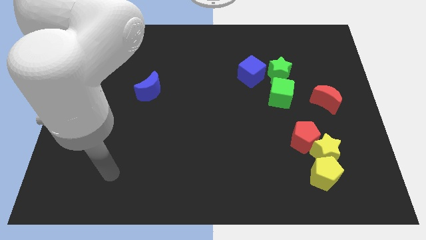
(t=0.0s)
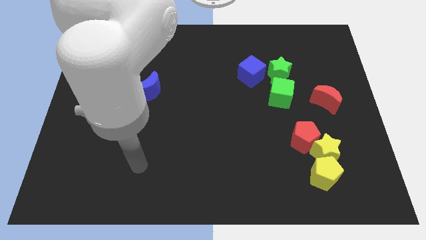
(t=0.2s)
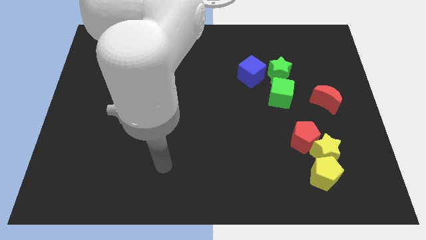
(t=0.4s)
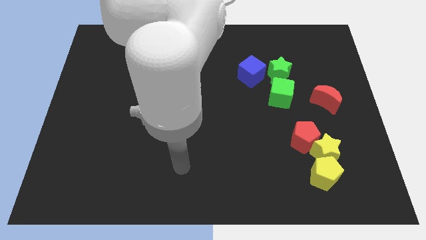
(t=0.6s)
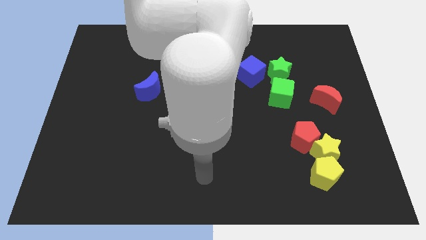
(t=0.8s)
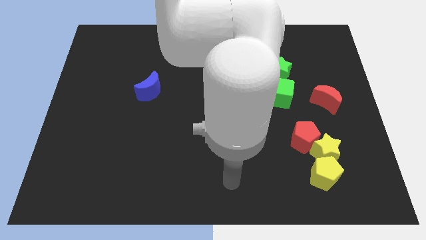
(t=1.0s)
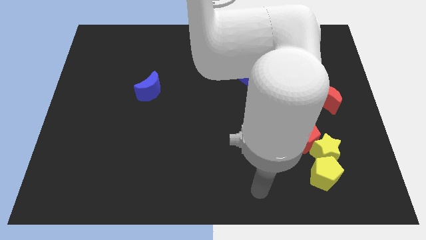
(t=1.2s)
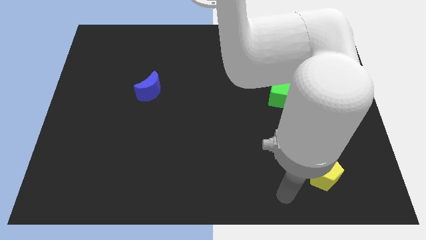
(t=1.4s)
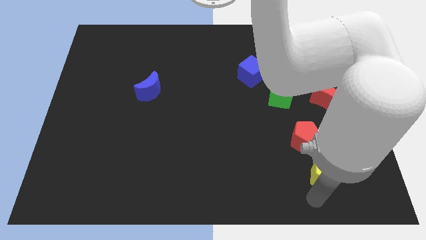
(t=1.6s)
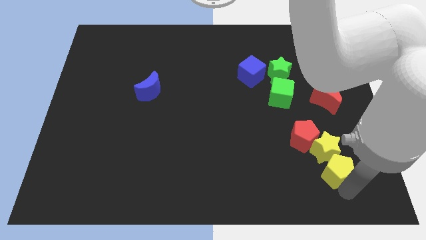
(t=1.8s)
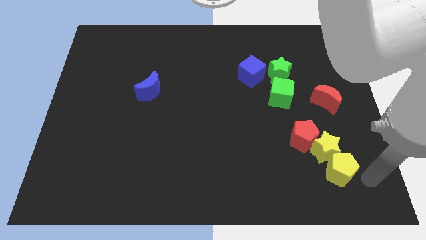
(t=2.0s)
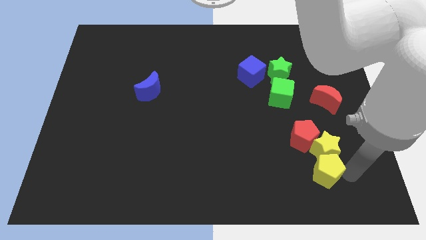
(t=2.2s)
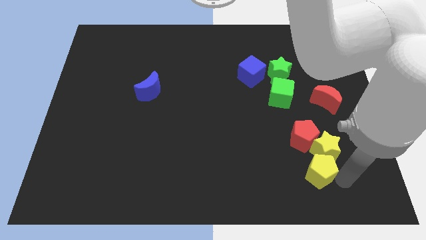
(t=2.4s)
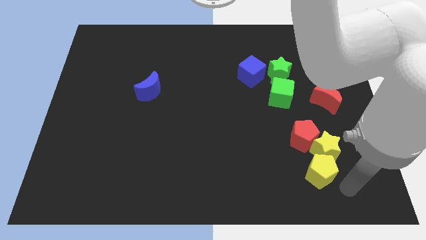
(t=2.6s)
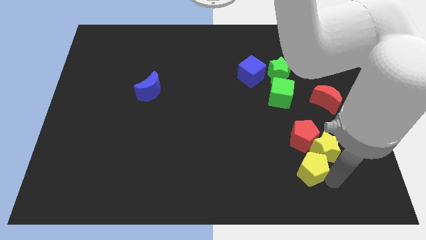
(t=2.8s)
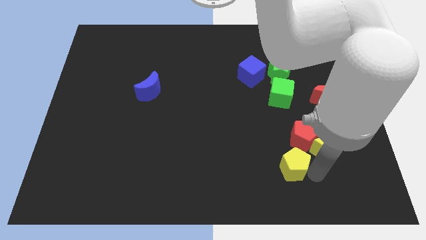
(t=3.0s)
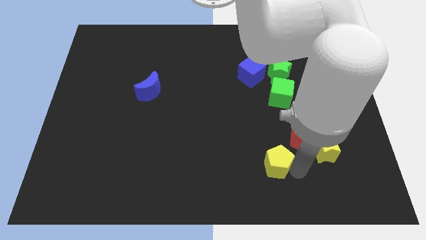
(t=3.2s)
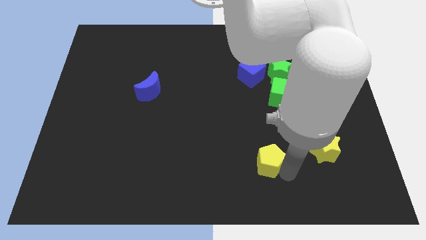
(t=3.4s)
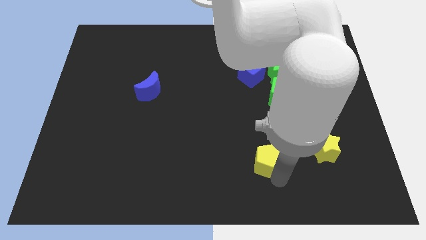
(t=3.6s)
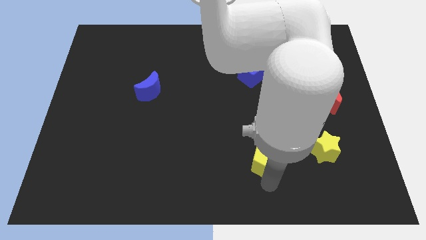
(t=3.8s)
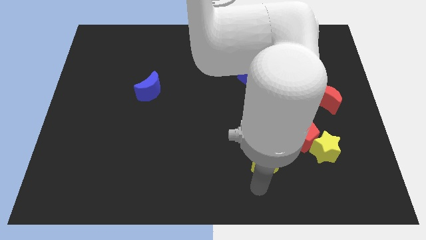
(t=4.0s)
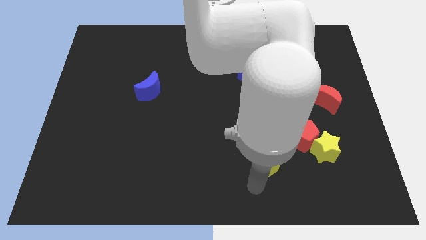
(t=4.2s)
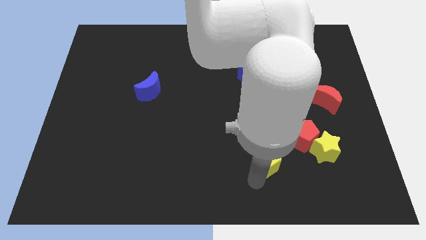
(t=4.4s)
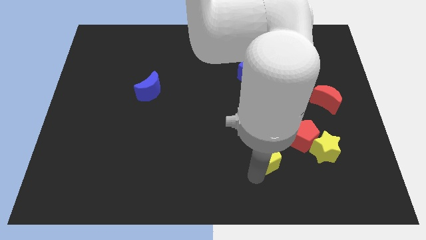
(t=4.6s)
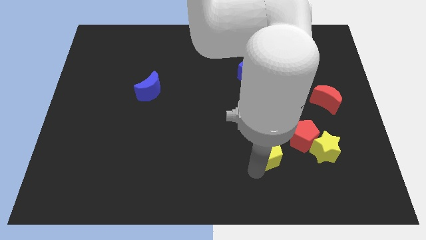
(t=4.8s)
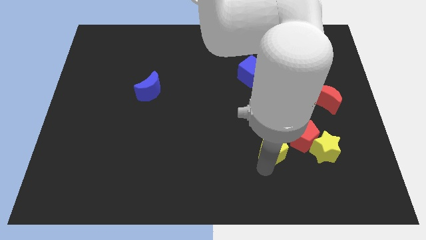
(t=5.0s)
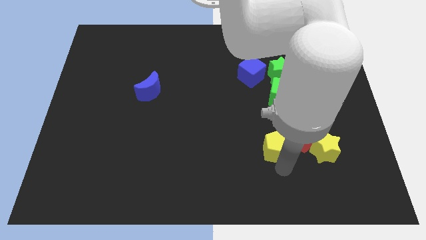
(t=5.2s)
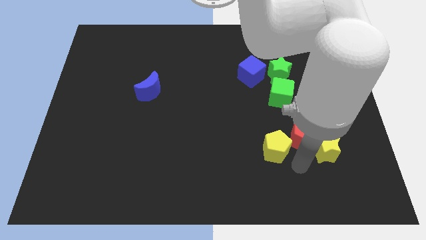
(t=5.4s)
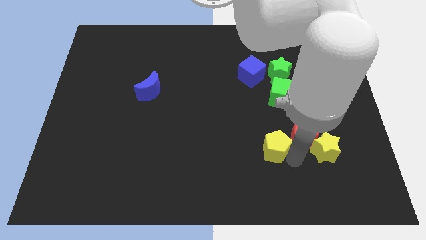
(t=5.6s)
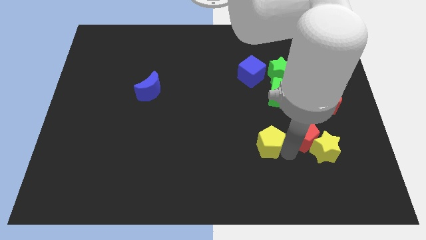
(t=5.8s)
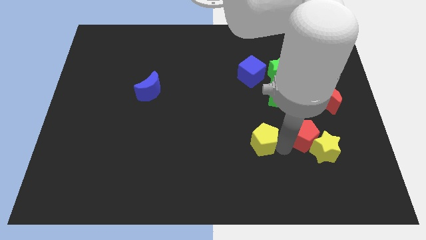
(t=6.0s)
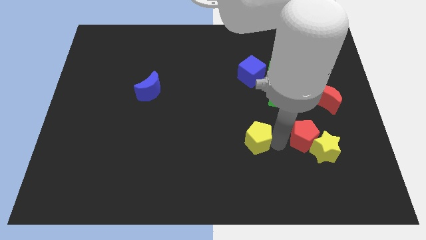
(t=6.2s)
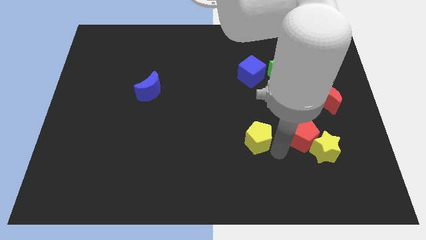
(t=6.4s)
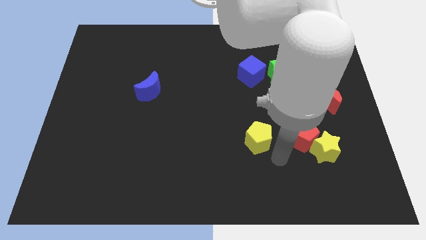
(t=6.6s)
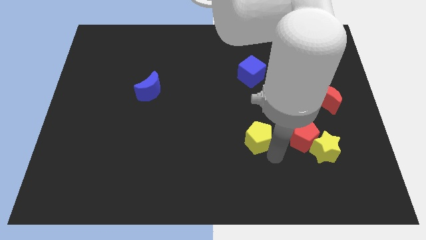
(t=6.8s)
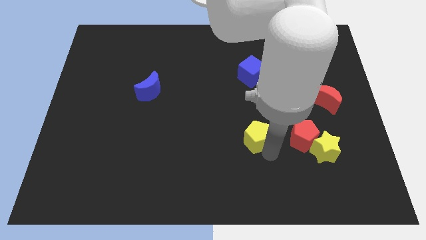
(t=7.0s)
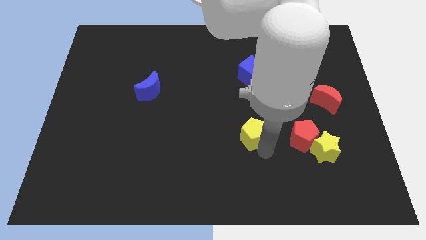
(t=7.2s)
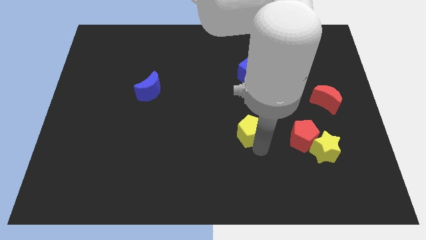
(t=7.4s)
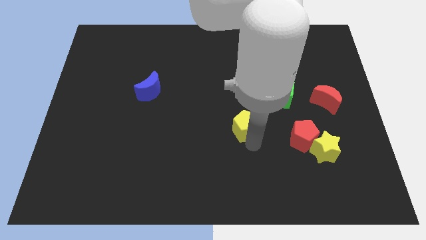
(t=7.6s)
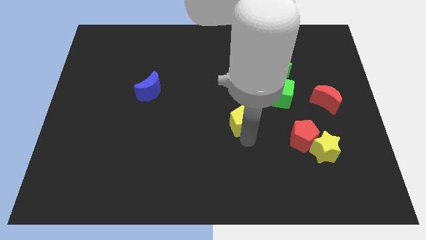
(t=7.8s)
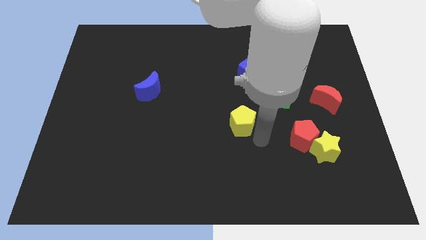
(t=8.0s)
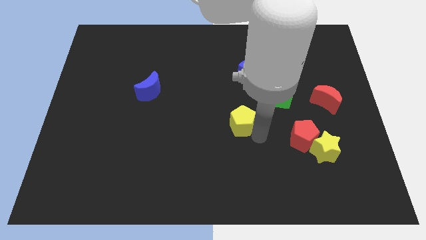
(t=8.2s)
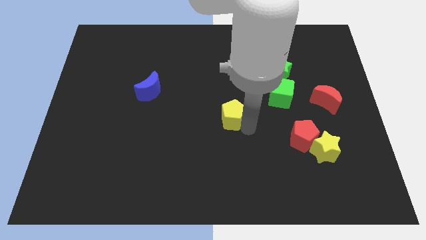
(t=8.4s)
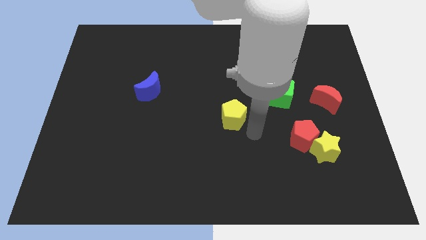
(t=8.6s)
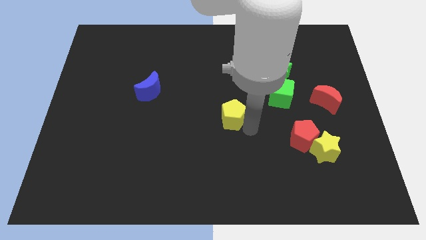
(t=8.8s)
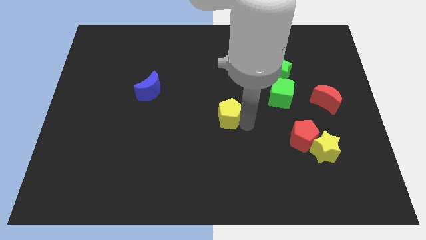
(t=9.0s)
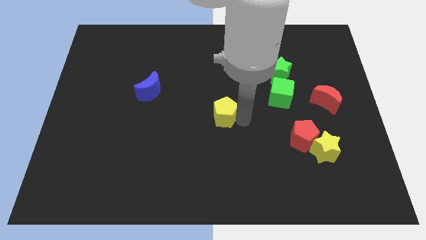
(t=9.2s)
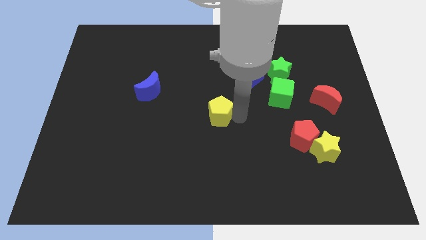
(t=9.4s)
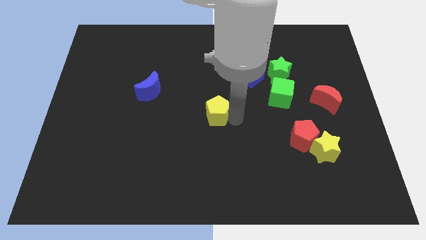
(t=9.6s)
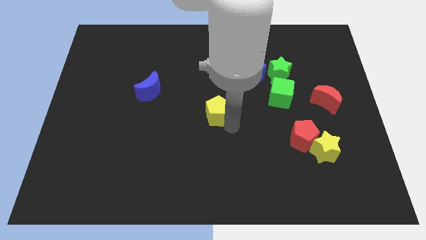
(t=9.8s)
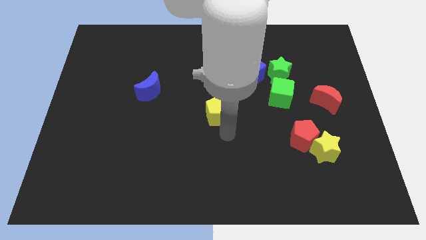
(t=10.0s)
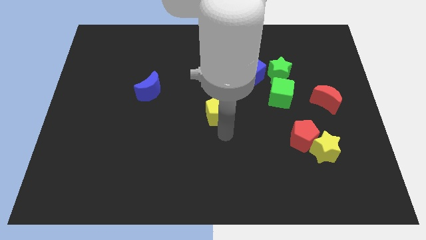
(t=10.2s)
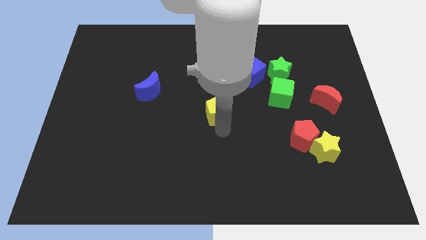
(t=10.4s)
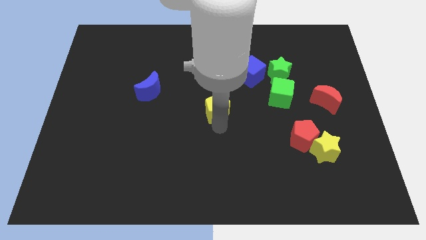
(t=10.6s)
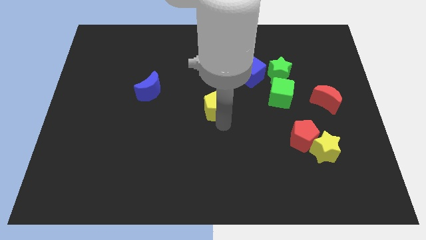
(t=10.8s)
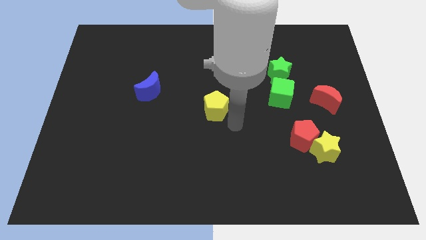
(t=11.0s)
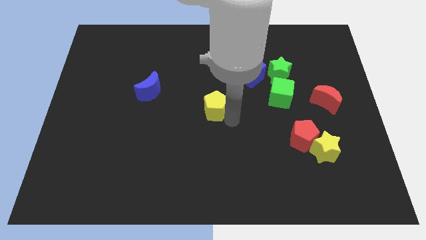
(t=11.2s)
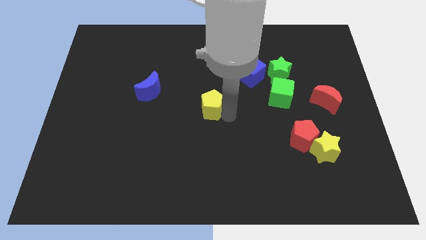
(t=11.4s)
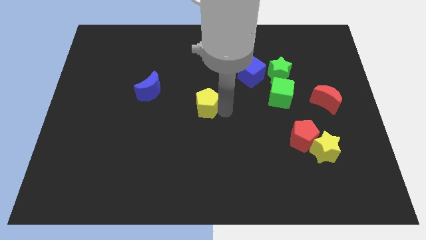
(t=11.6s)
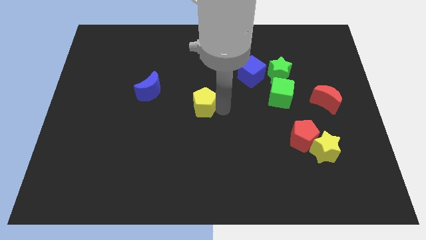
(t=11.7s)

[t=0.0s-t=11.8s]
move the yellow pentagon to the right side of the blue moon

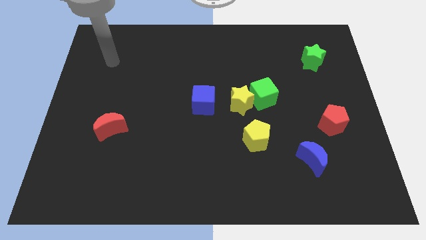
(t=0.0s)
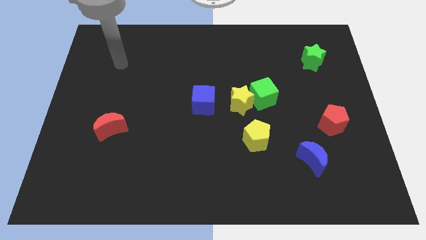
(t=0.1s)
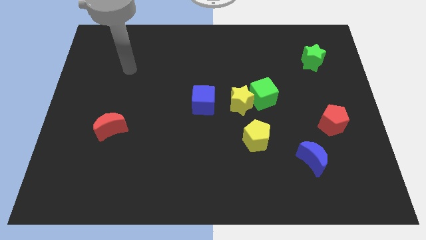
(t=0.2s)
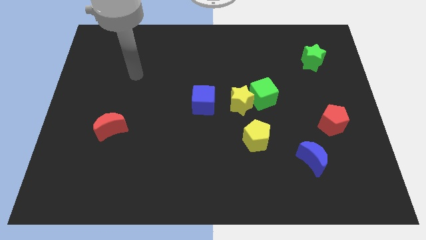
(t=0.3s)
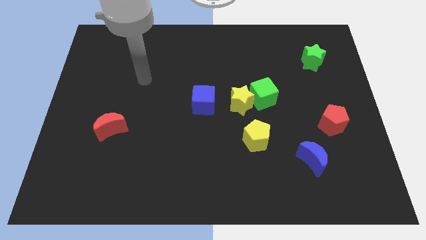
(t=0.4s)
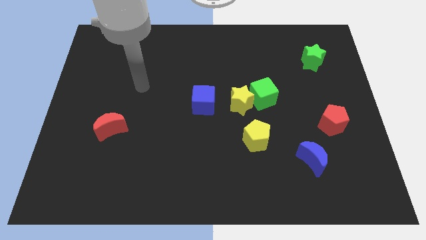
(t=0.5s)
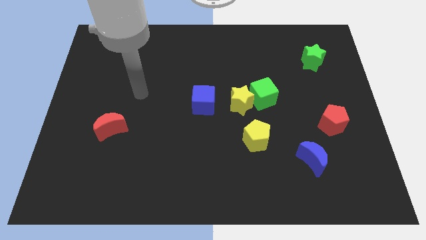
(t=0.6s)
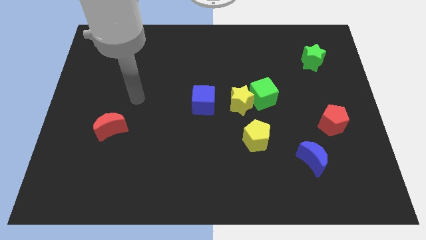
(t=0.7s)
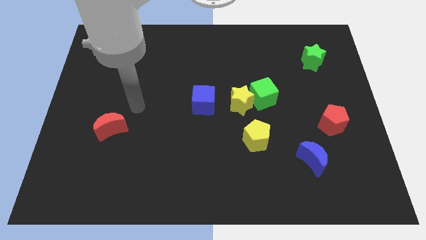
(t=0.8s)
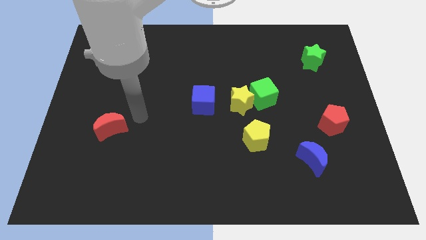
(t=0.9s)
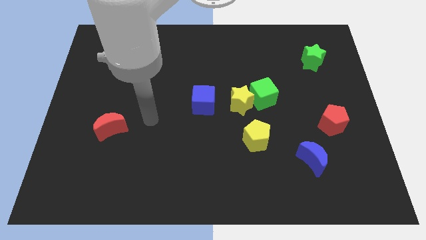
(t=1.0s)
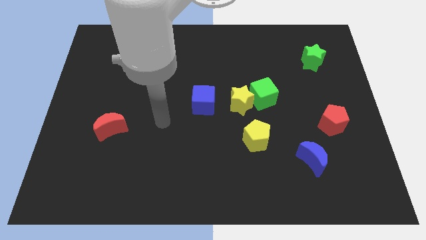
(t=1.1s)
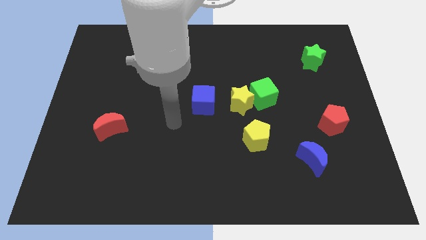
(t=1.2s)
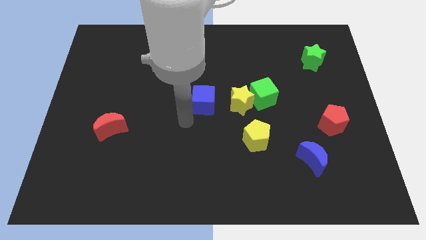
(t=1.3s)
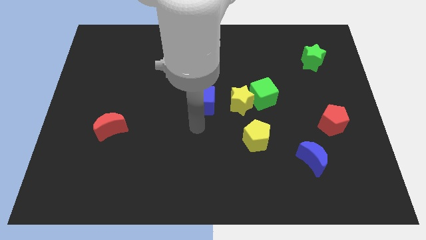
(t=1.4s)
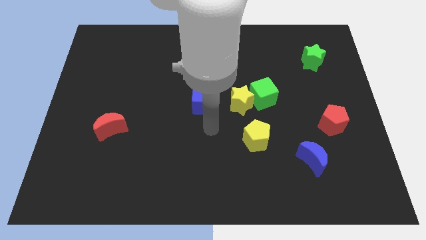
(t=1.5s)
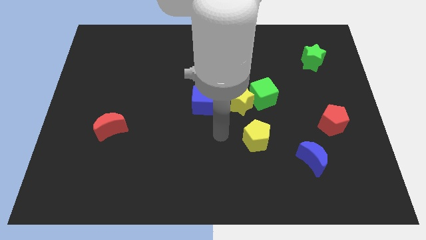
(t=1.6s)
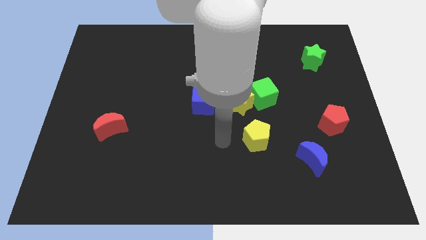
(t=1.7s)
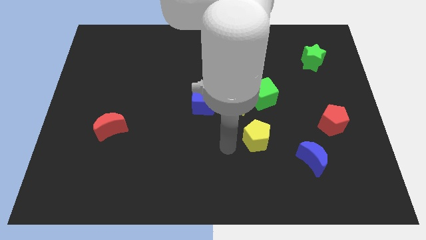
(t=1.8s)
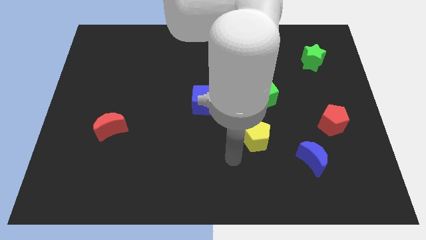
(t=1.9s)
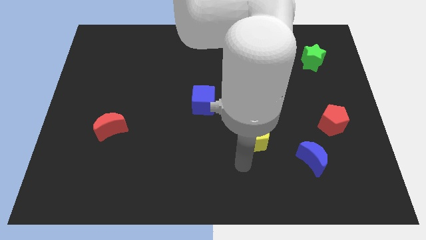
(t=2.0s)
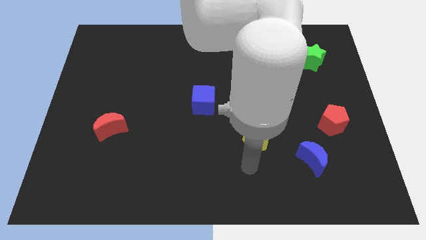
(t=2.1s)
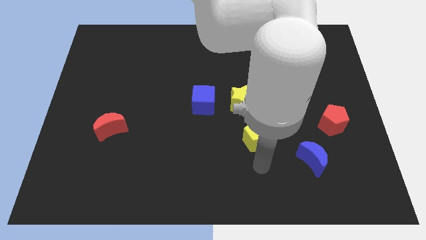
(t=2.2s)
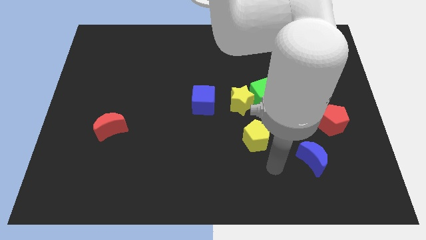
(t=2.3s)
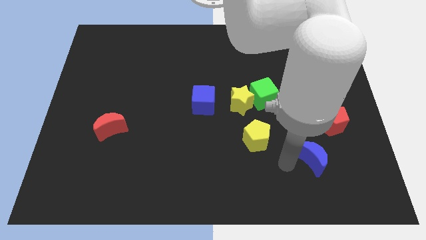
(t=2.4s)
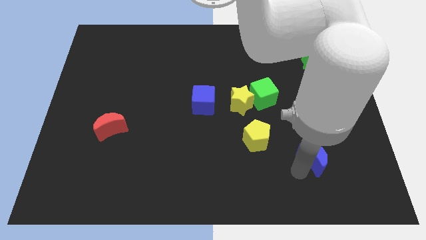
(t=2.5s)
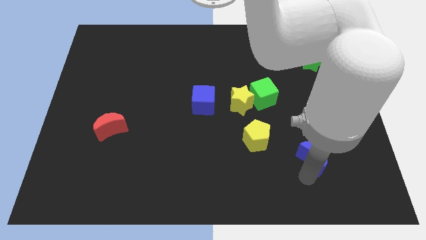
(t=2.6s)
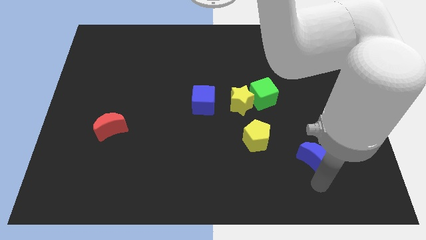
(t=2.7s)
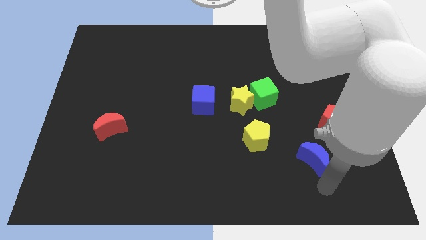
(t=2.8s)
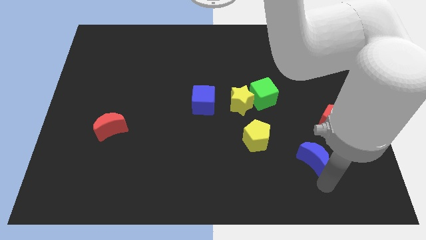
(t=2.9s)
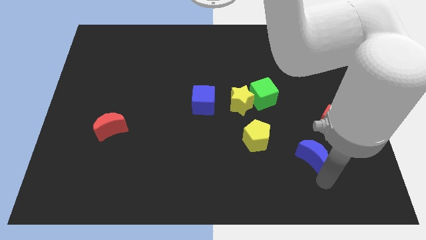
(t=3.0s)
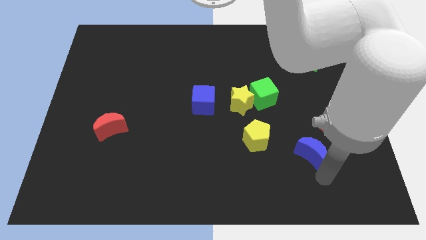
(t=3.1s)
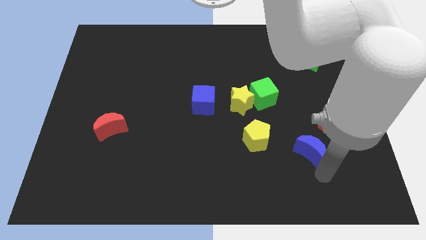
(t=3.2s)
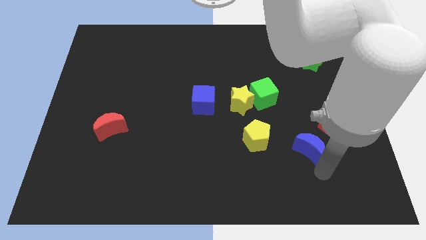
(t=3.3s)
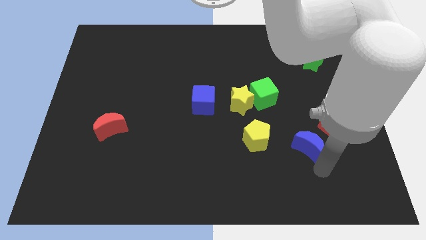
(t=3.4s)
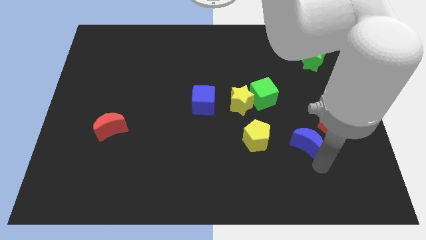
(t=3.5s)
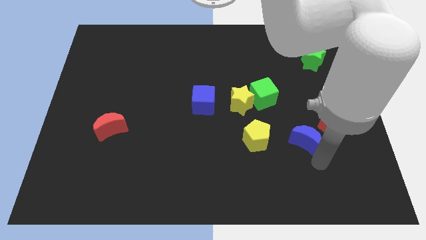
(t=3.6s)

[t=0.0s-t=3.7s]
push the blue moon just left of the red pentagon
